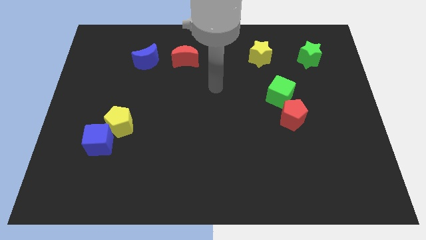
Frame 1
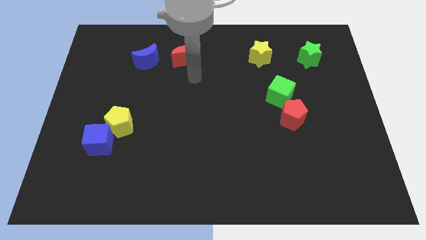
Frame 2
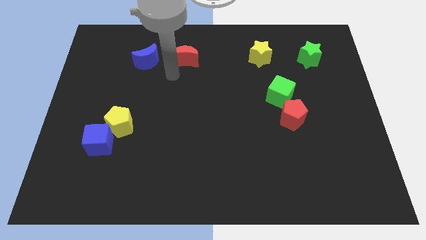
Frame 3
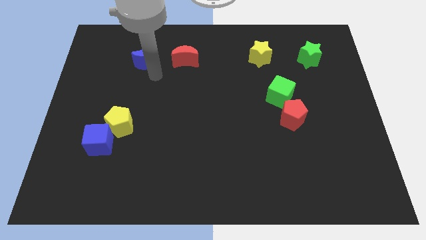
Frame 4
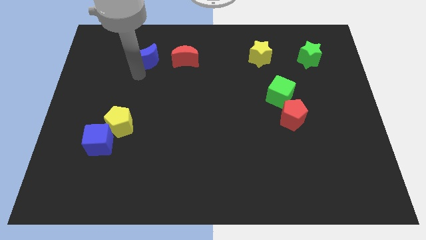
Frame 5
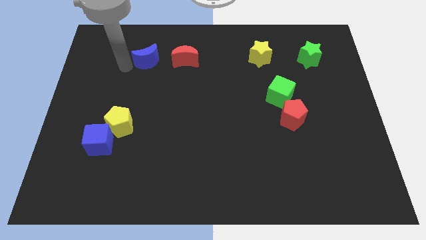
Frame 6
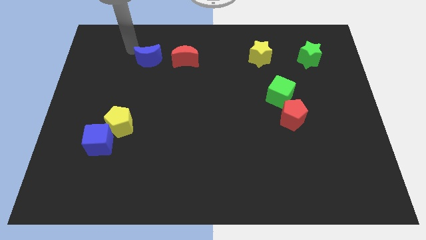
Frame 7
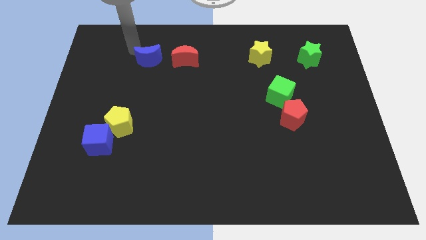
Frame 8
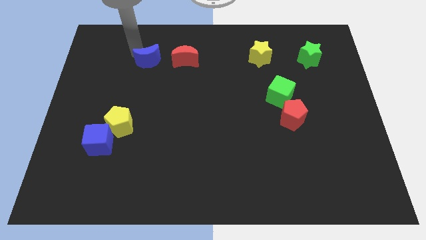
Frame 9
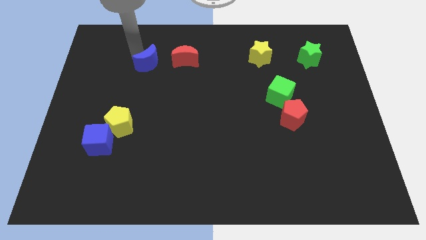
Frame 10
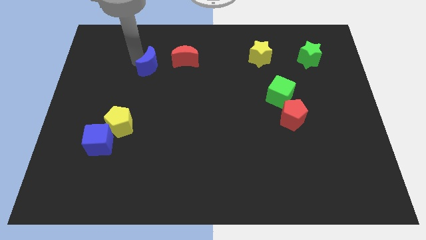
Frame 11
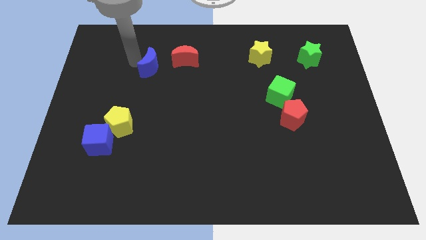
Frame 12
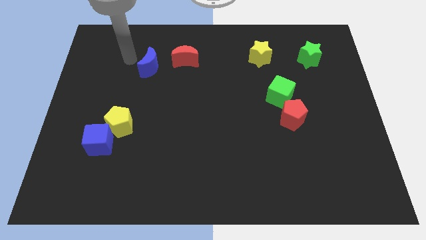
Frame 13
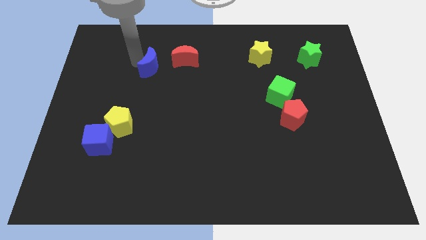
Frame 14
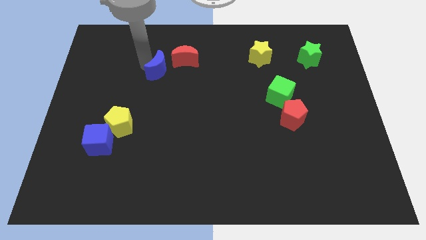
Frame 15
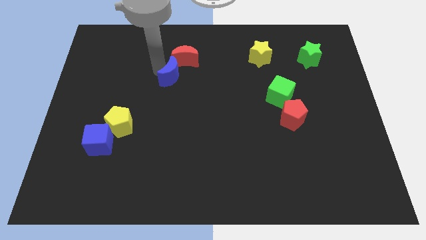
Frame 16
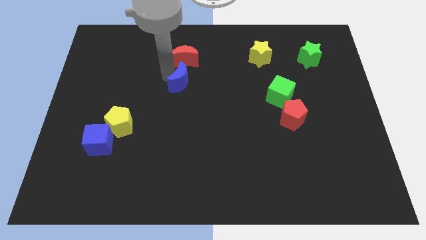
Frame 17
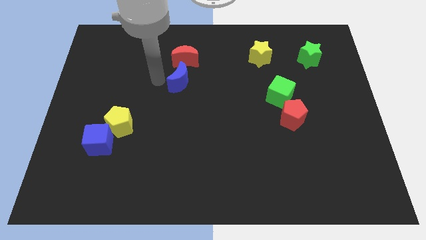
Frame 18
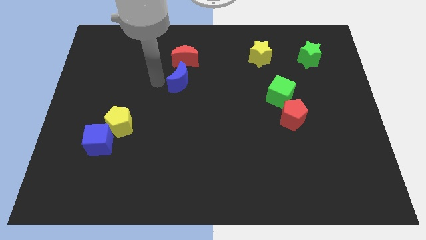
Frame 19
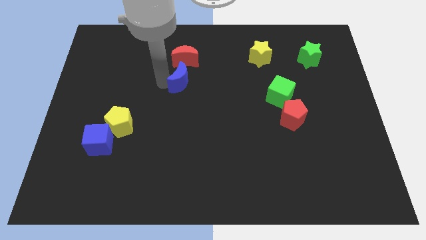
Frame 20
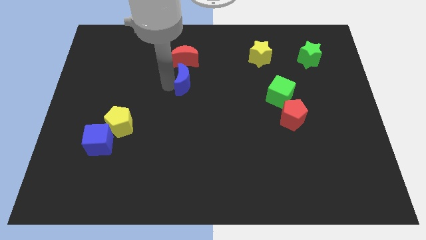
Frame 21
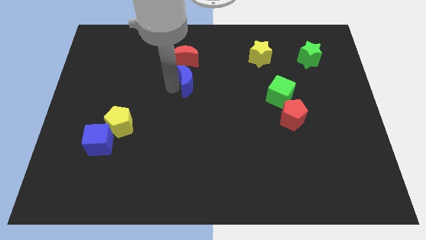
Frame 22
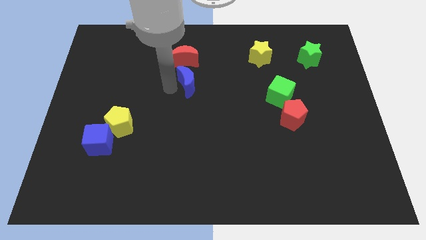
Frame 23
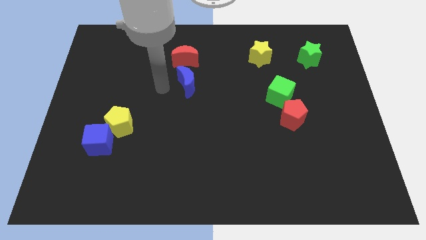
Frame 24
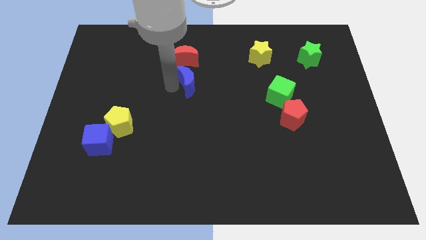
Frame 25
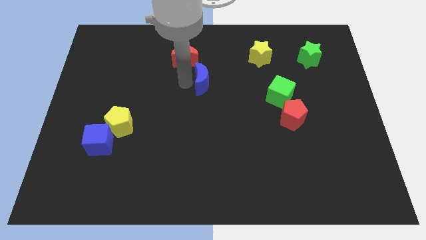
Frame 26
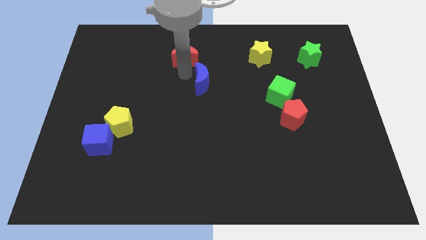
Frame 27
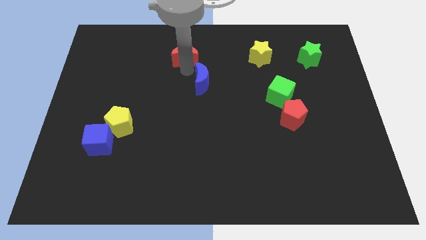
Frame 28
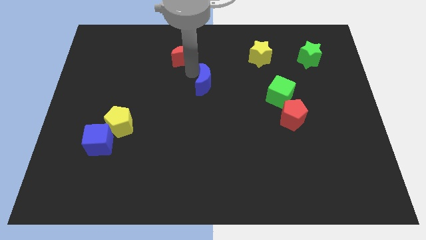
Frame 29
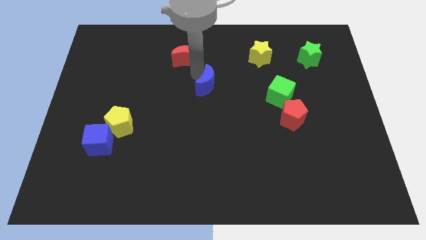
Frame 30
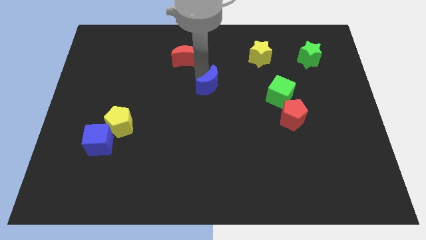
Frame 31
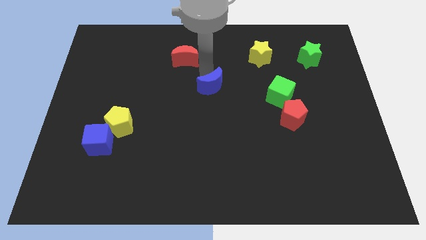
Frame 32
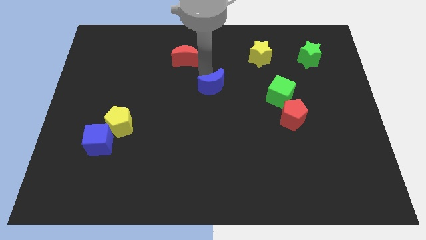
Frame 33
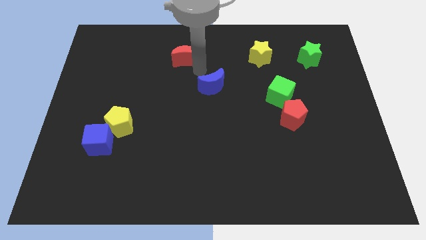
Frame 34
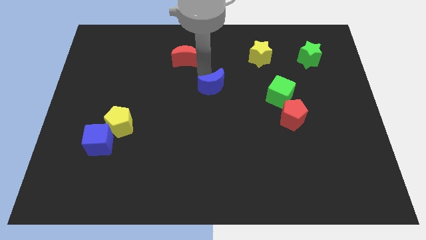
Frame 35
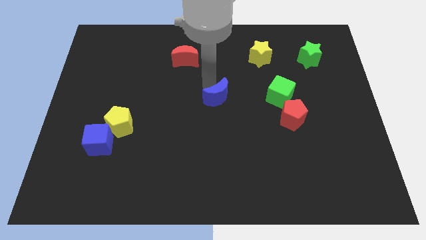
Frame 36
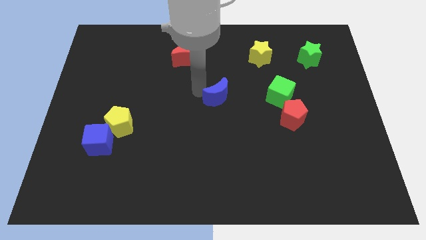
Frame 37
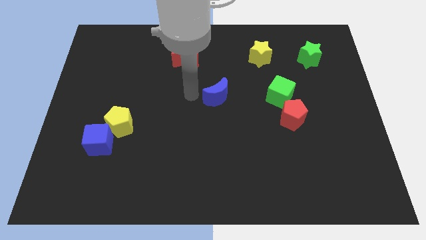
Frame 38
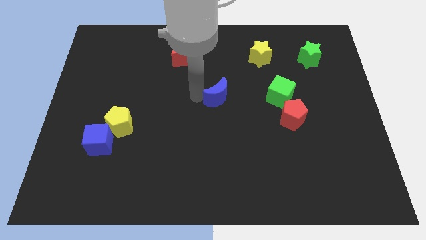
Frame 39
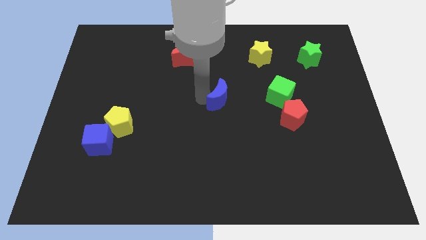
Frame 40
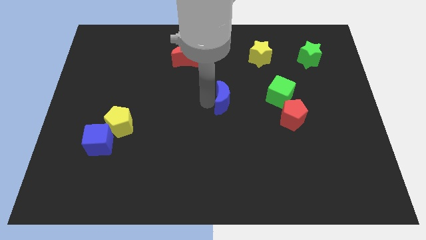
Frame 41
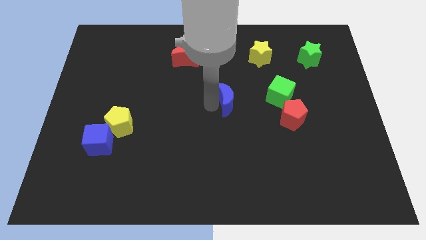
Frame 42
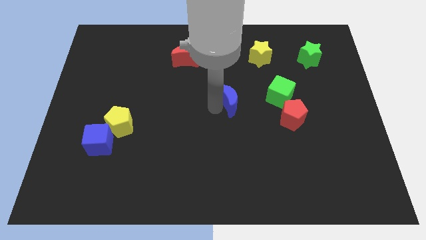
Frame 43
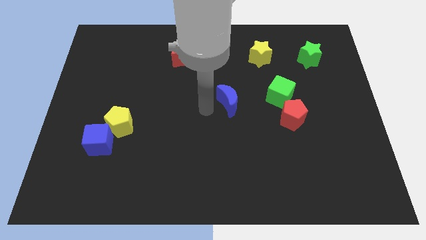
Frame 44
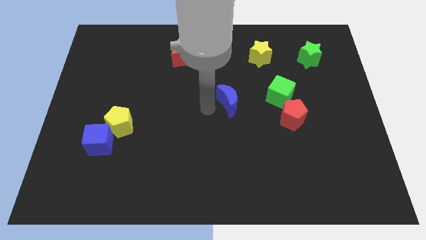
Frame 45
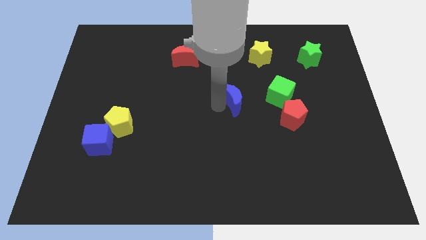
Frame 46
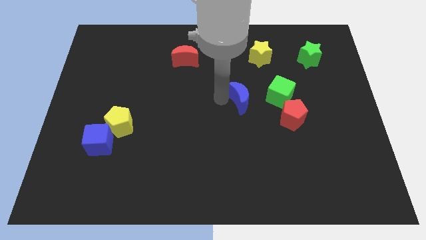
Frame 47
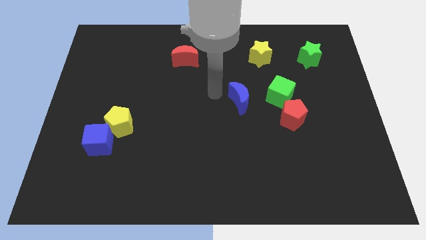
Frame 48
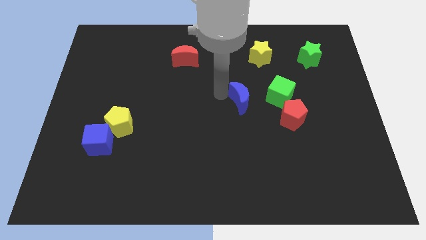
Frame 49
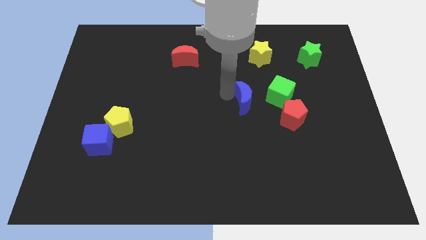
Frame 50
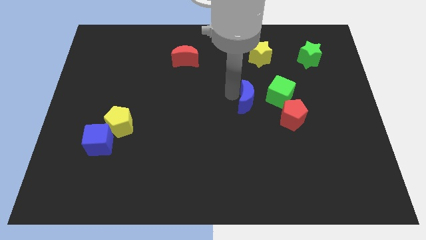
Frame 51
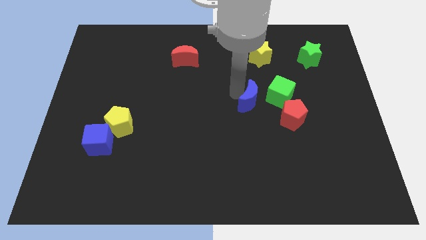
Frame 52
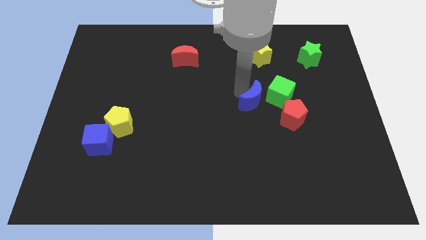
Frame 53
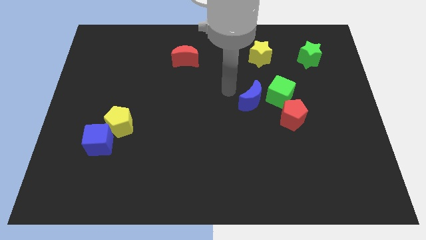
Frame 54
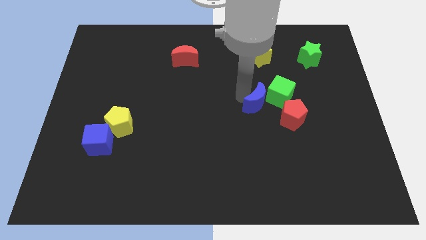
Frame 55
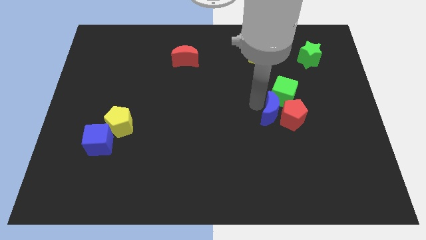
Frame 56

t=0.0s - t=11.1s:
move the blue moon next to the red pentagon

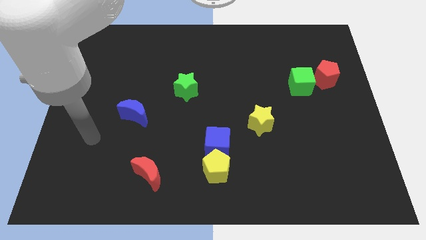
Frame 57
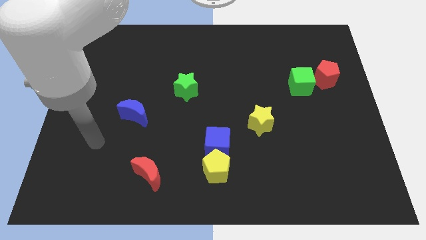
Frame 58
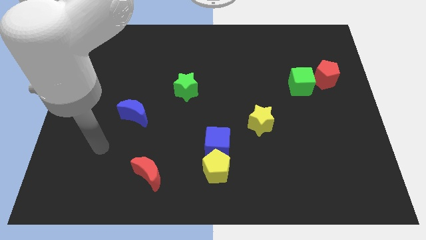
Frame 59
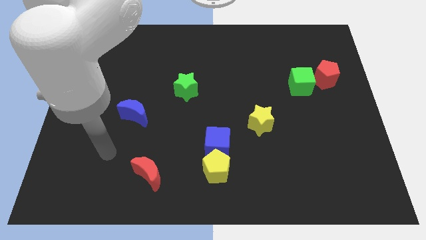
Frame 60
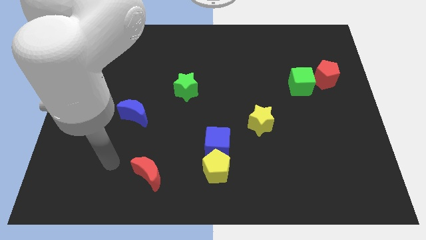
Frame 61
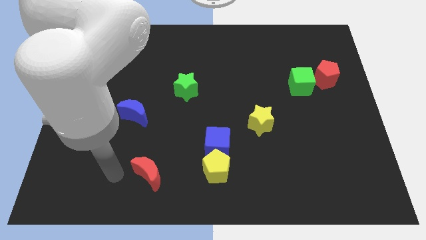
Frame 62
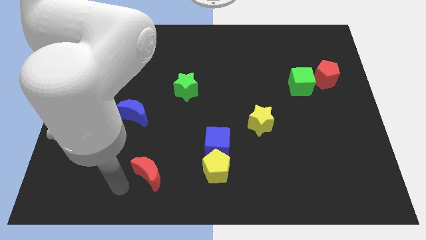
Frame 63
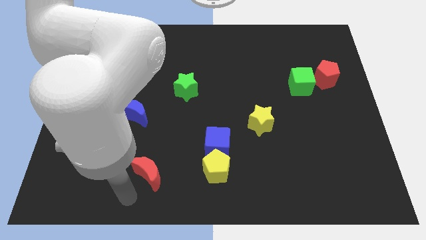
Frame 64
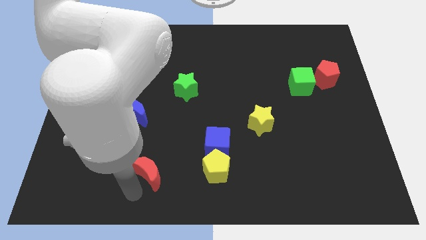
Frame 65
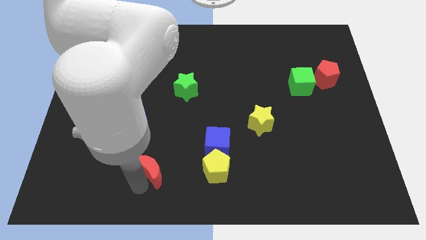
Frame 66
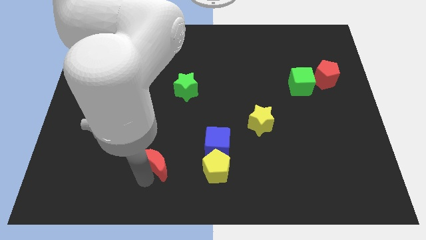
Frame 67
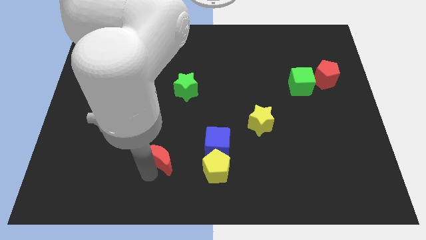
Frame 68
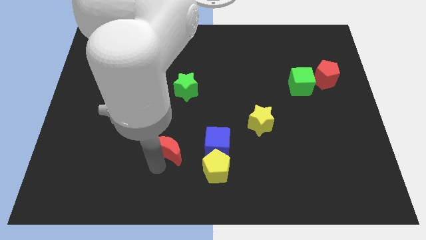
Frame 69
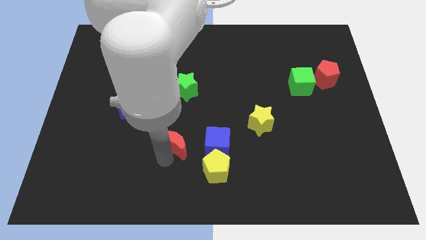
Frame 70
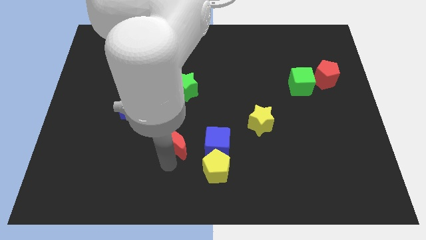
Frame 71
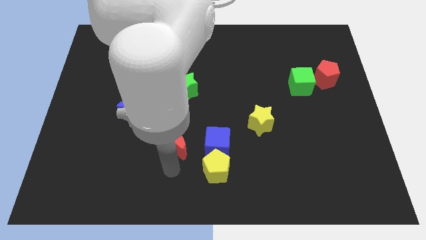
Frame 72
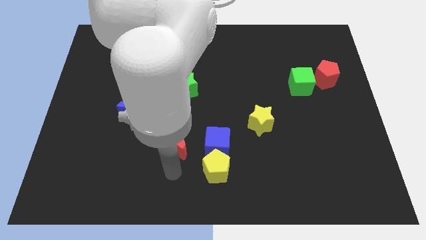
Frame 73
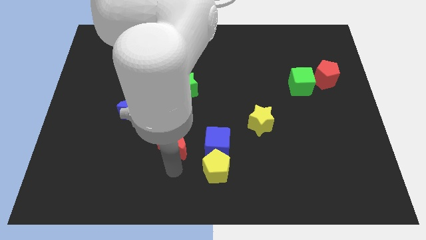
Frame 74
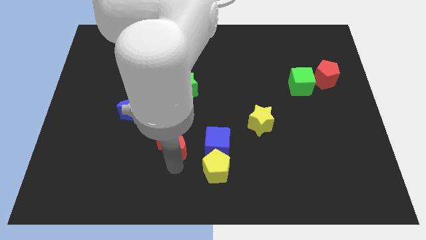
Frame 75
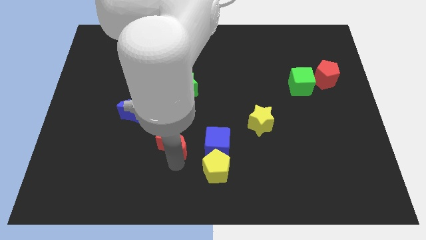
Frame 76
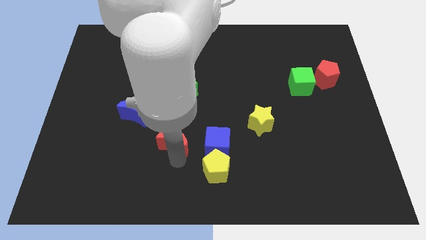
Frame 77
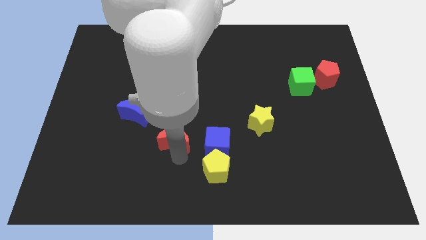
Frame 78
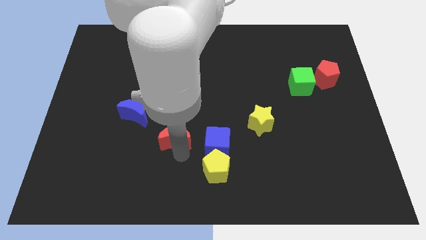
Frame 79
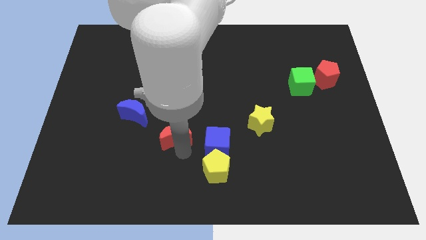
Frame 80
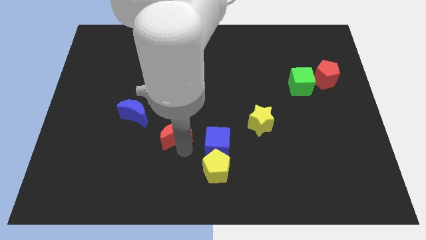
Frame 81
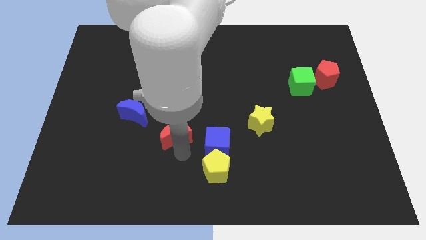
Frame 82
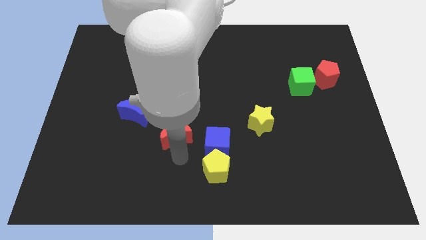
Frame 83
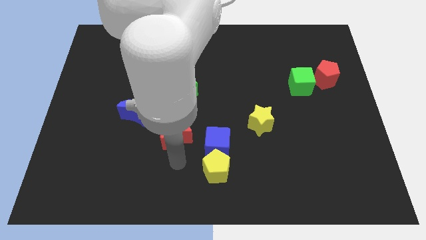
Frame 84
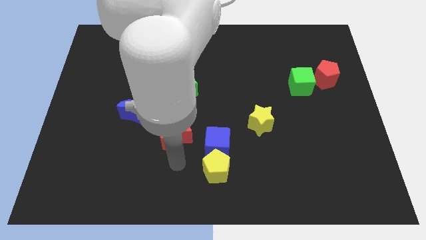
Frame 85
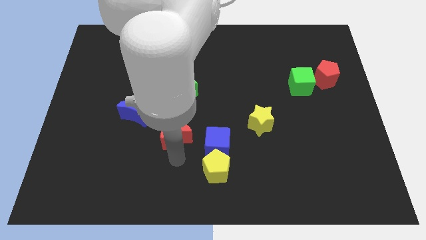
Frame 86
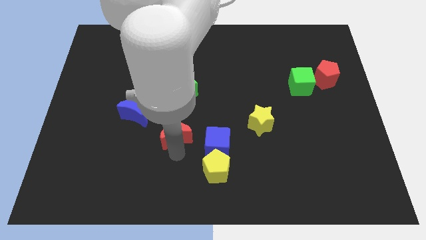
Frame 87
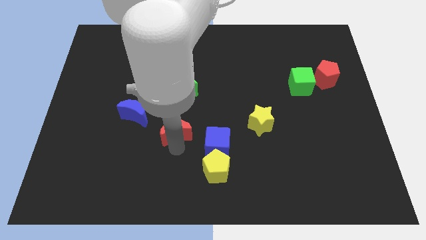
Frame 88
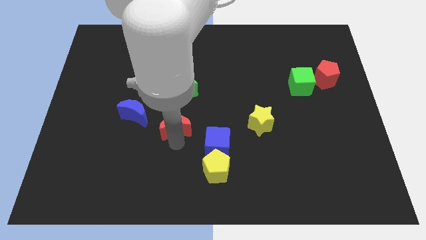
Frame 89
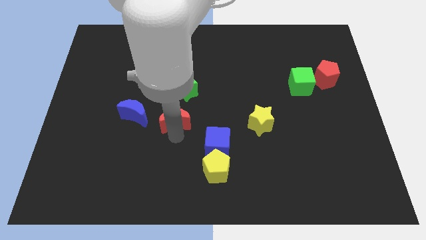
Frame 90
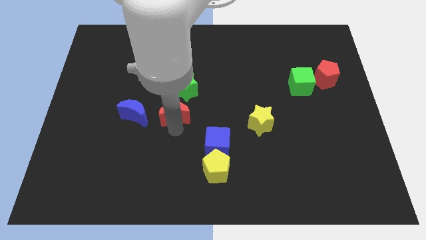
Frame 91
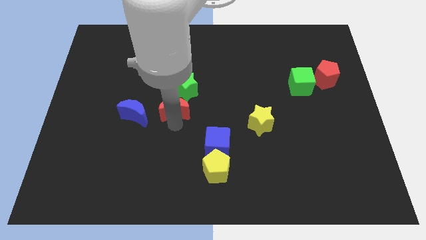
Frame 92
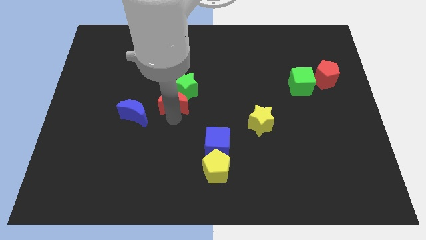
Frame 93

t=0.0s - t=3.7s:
slide the red moon next to the green star
